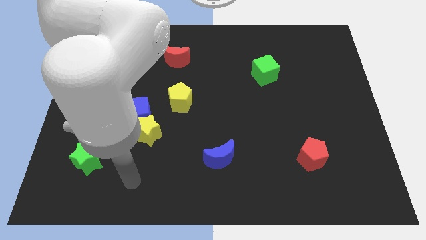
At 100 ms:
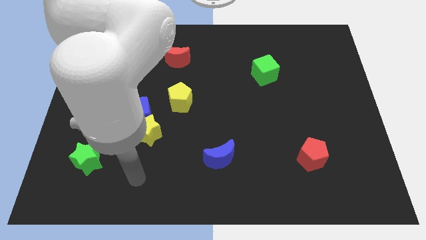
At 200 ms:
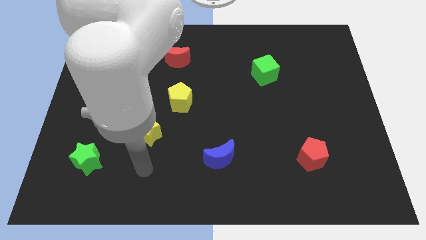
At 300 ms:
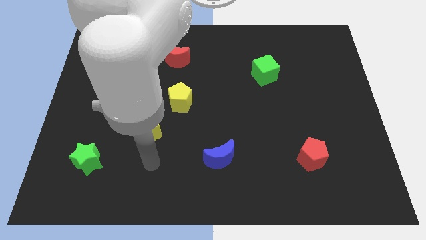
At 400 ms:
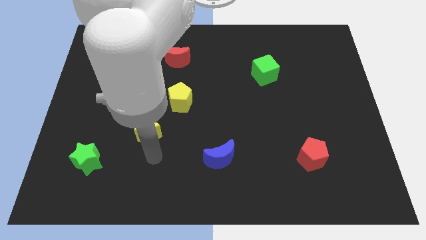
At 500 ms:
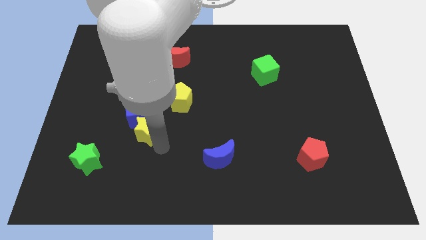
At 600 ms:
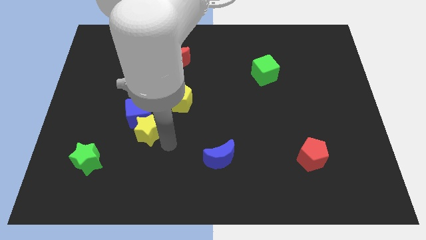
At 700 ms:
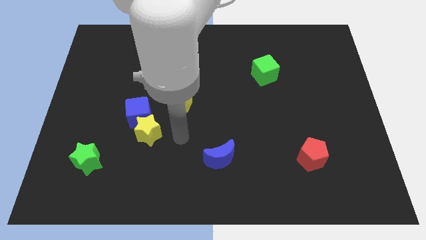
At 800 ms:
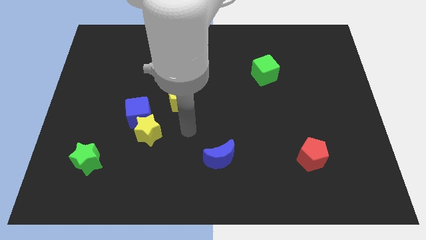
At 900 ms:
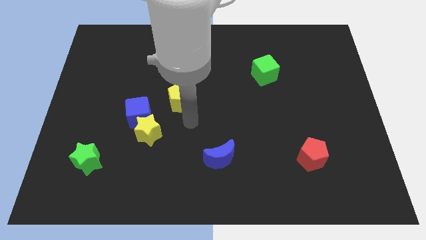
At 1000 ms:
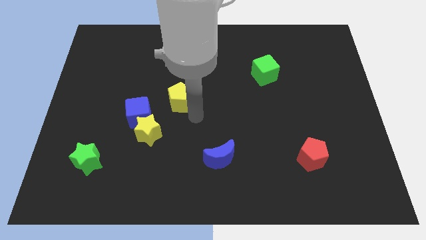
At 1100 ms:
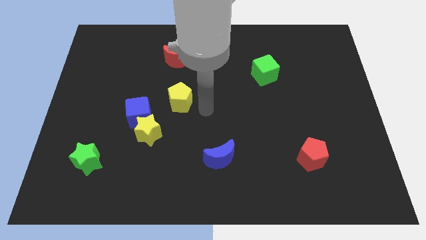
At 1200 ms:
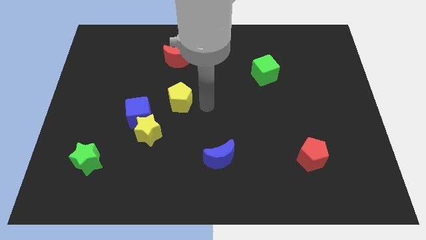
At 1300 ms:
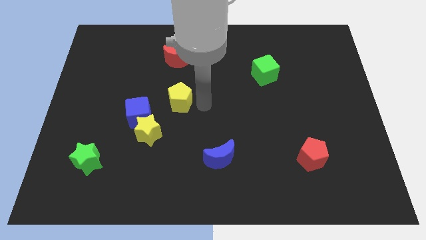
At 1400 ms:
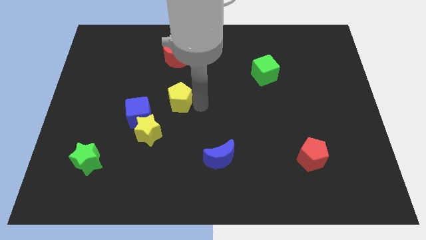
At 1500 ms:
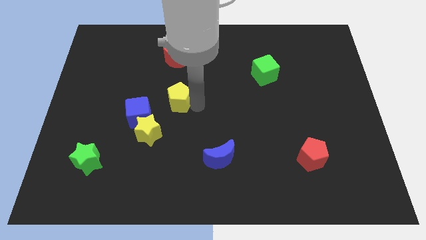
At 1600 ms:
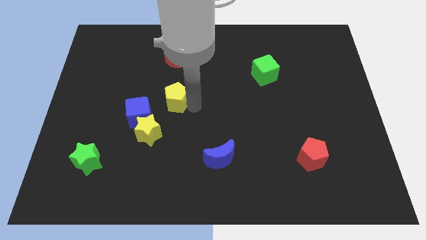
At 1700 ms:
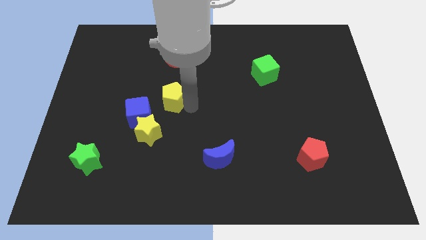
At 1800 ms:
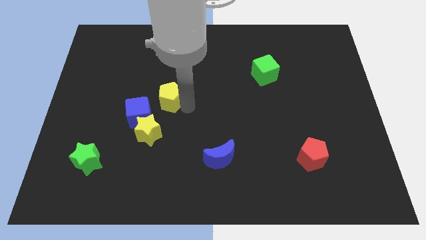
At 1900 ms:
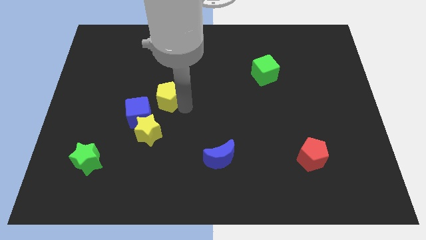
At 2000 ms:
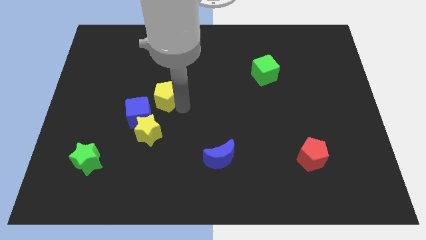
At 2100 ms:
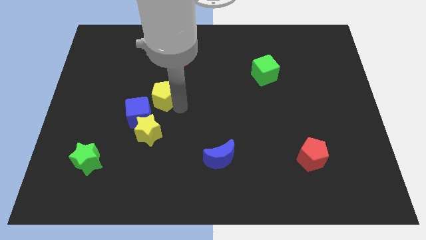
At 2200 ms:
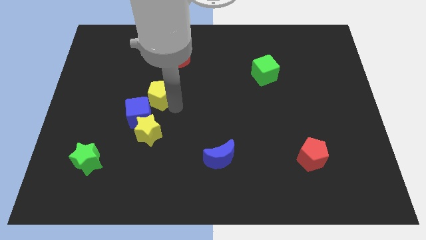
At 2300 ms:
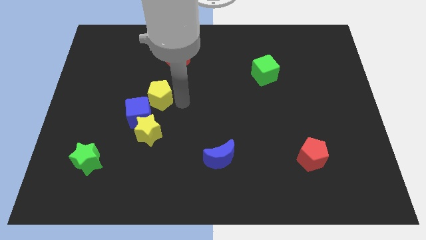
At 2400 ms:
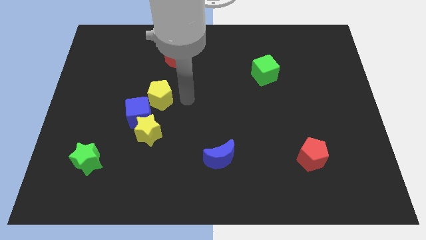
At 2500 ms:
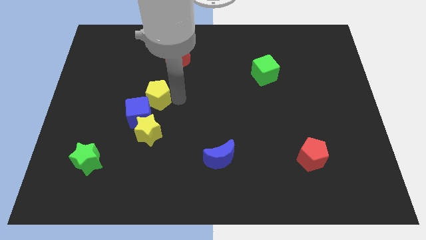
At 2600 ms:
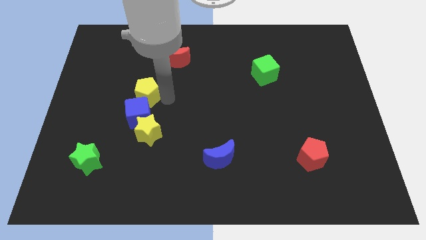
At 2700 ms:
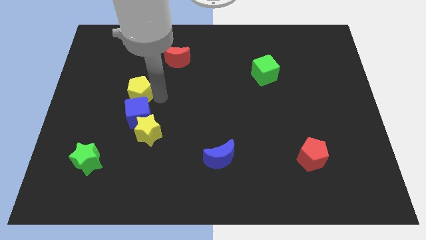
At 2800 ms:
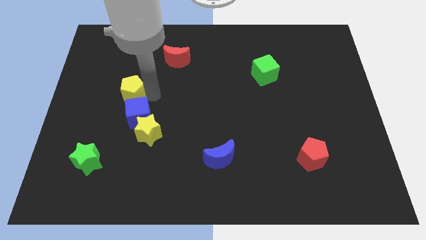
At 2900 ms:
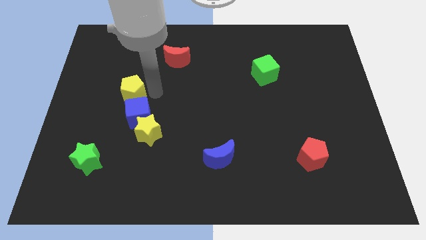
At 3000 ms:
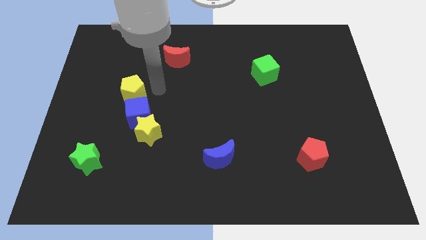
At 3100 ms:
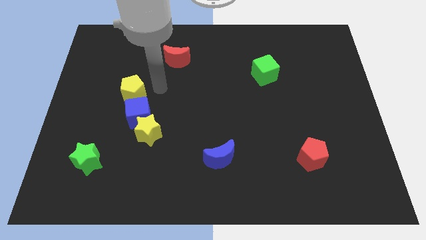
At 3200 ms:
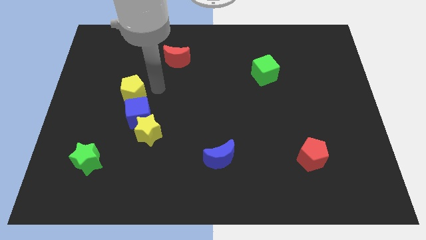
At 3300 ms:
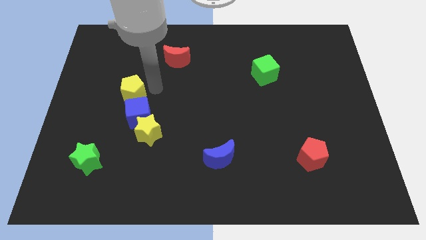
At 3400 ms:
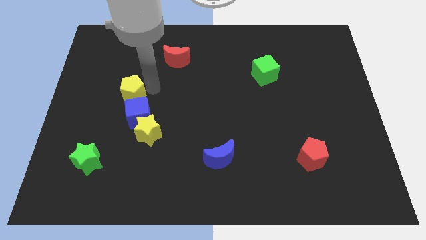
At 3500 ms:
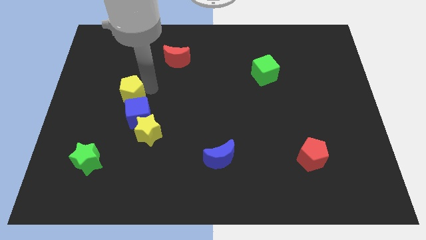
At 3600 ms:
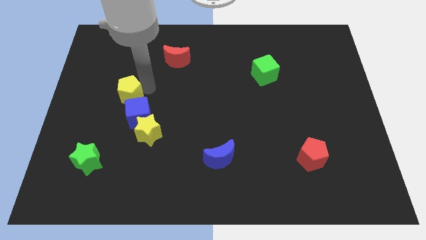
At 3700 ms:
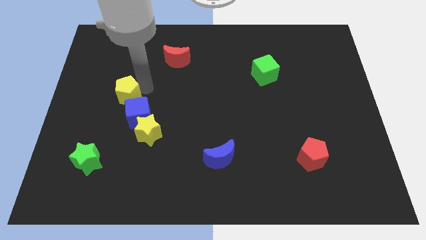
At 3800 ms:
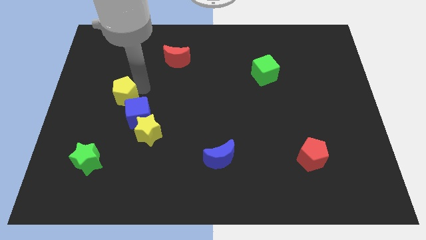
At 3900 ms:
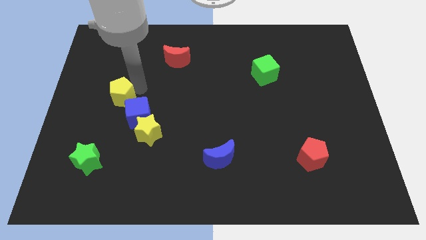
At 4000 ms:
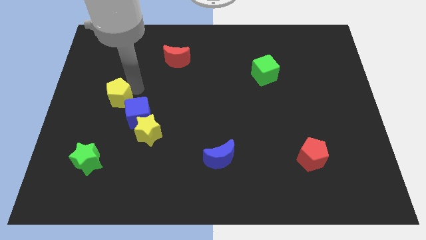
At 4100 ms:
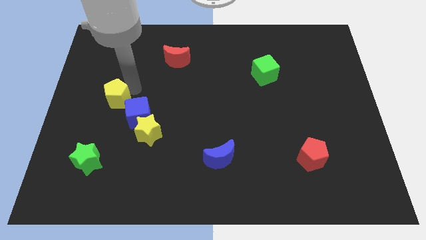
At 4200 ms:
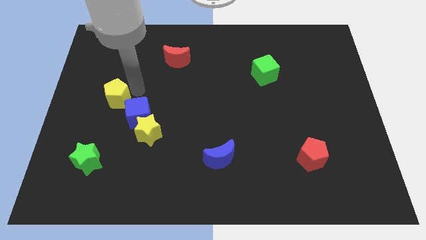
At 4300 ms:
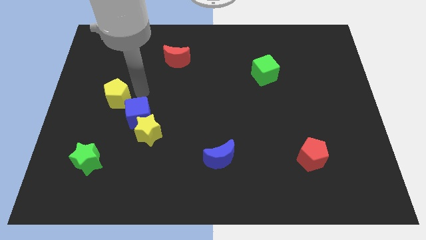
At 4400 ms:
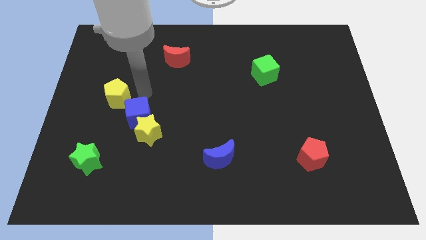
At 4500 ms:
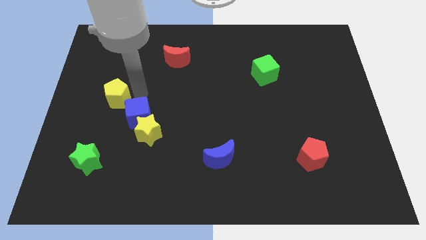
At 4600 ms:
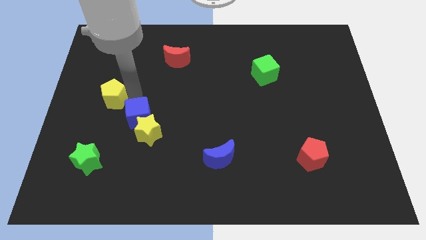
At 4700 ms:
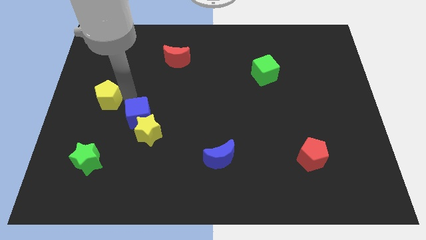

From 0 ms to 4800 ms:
put the yellow pentagon to the center left

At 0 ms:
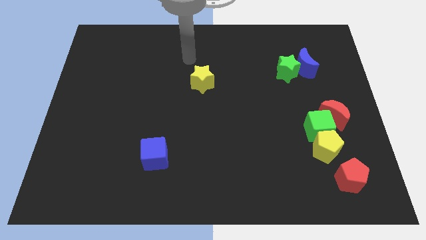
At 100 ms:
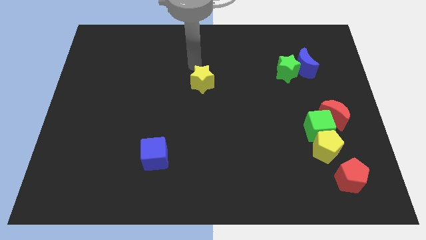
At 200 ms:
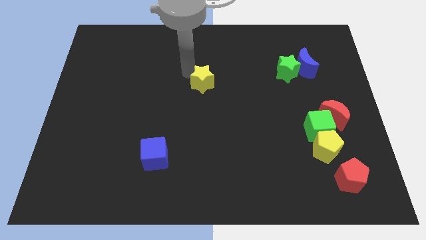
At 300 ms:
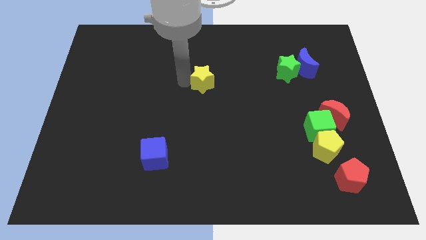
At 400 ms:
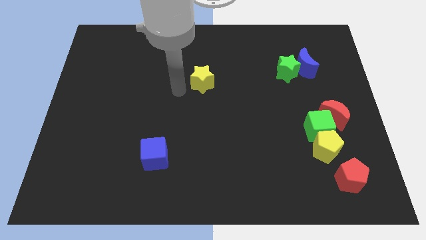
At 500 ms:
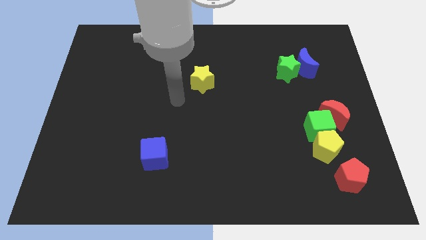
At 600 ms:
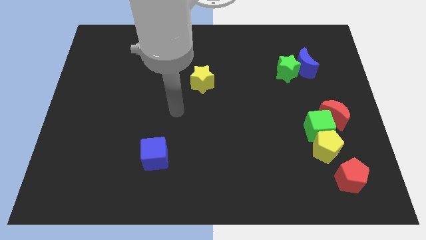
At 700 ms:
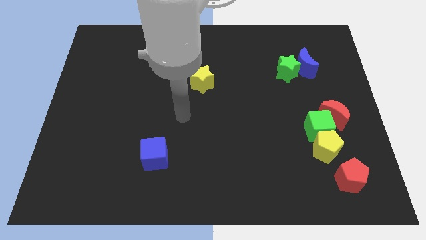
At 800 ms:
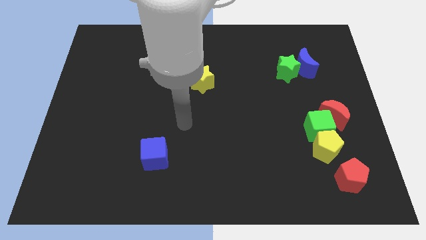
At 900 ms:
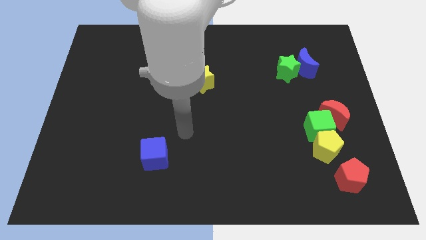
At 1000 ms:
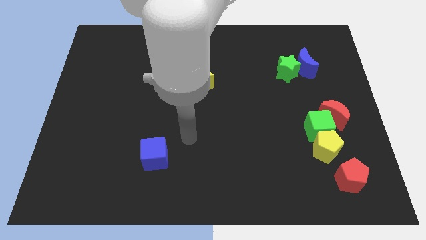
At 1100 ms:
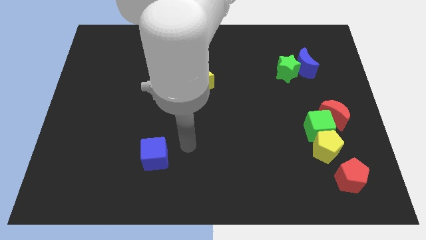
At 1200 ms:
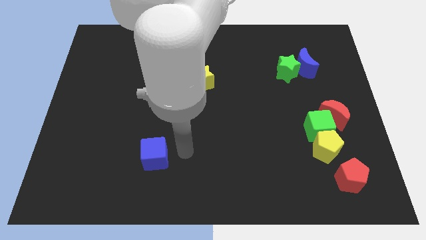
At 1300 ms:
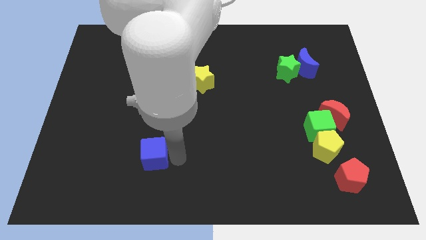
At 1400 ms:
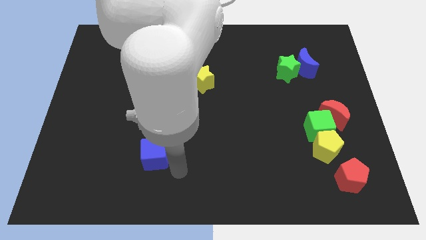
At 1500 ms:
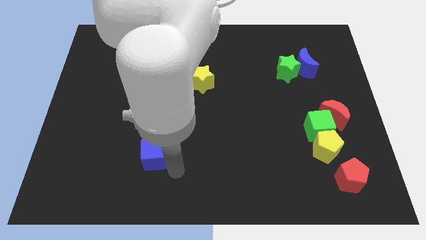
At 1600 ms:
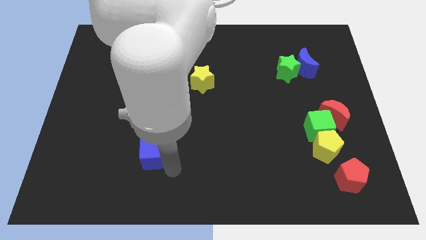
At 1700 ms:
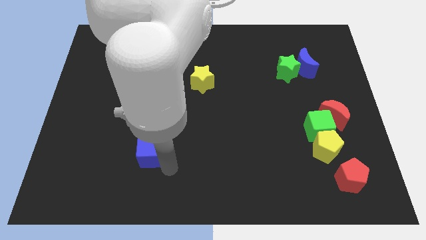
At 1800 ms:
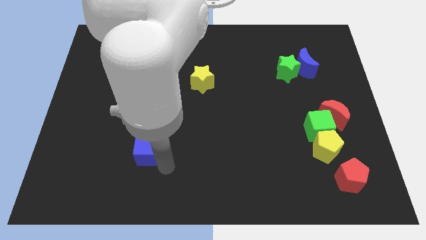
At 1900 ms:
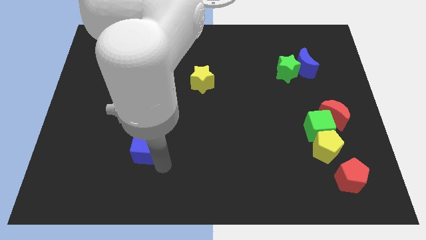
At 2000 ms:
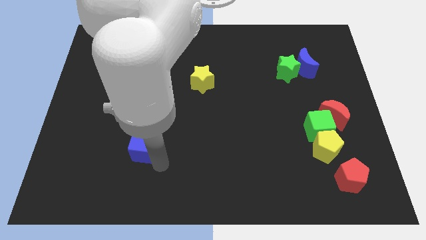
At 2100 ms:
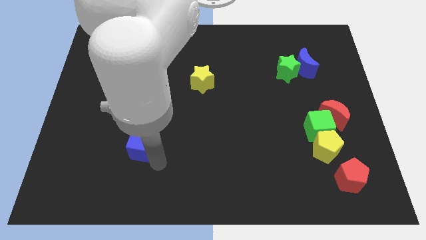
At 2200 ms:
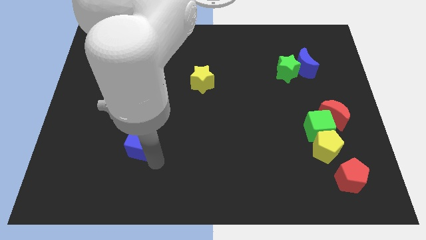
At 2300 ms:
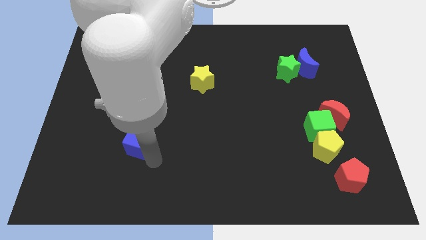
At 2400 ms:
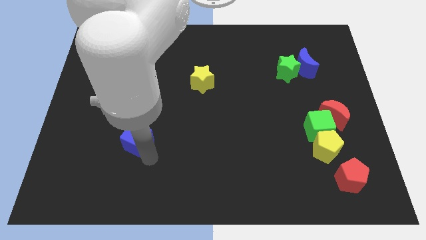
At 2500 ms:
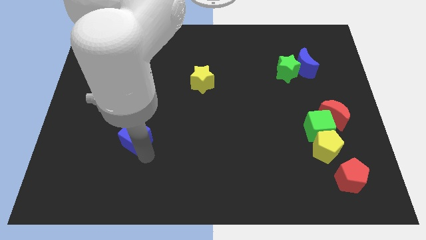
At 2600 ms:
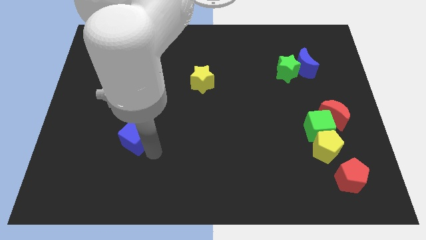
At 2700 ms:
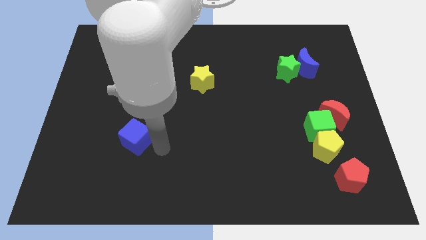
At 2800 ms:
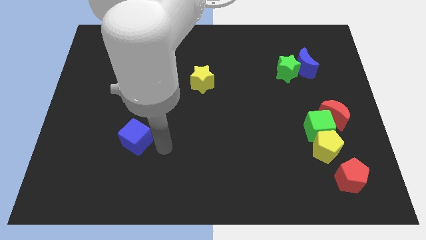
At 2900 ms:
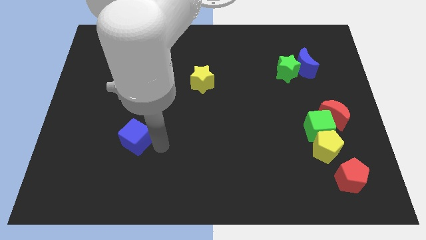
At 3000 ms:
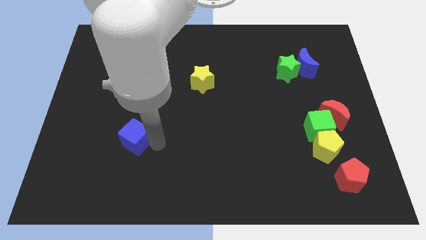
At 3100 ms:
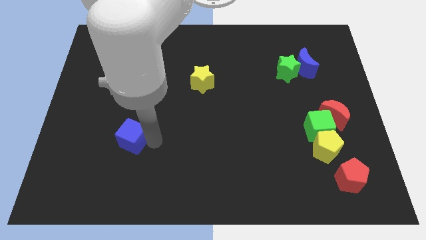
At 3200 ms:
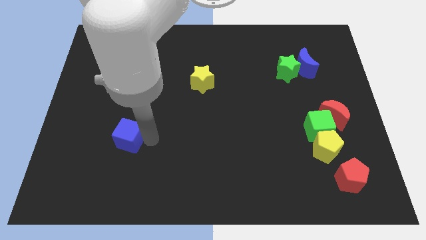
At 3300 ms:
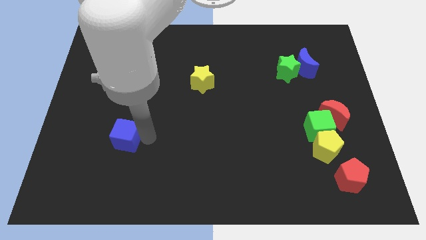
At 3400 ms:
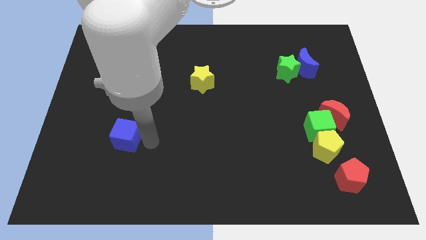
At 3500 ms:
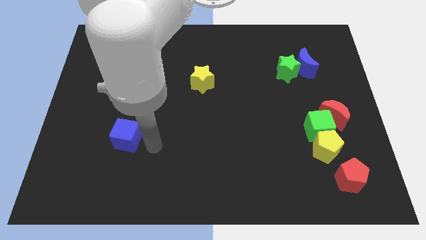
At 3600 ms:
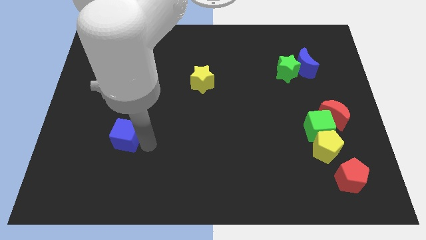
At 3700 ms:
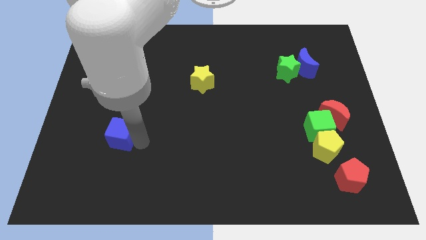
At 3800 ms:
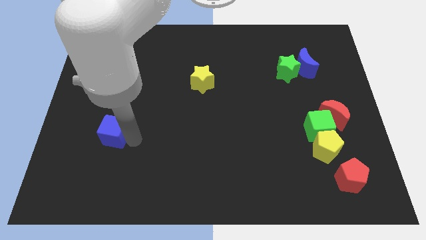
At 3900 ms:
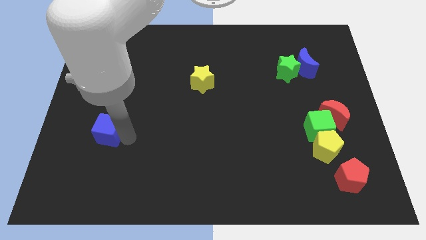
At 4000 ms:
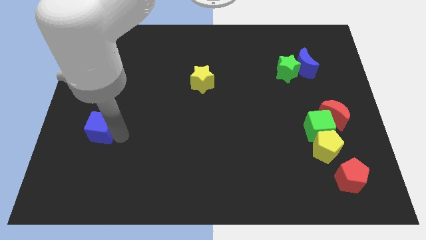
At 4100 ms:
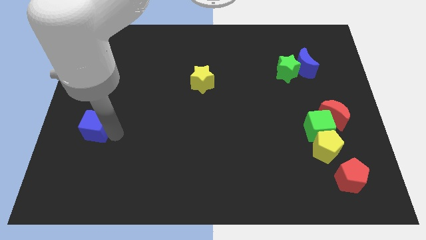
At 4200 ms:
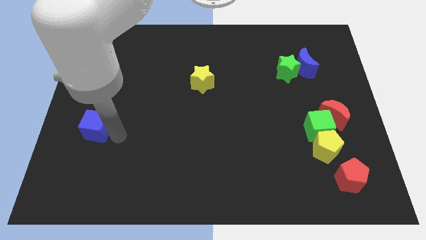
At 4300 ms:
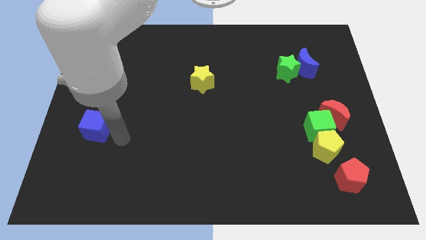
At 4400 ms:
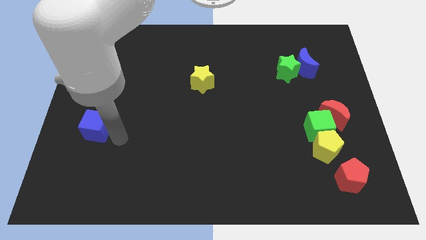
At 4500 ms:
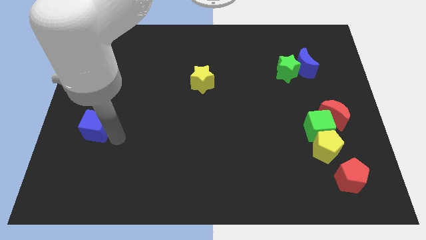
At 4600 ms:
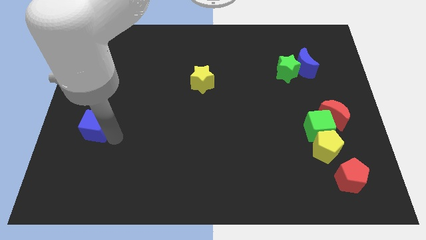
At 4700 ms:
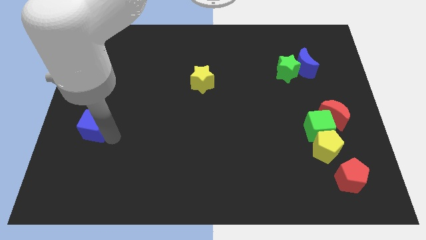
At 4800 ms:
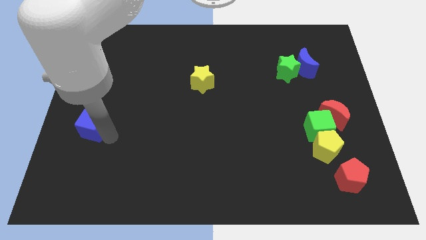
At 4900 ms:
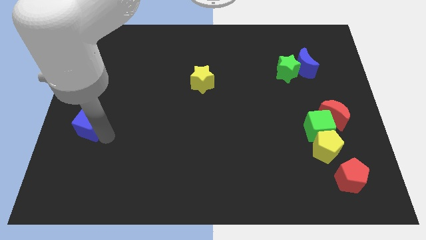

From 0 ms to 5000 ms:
push the blue cube to the center left
